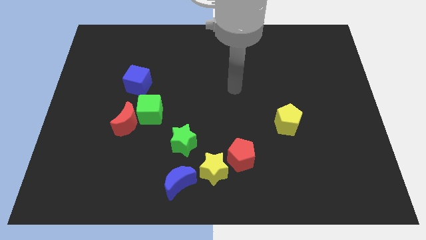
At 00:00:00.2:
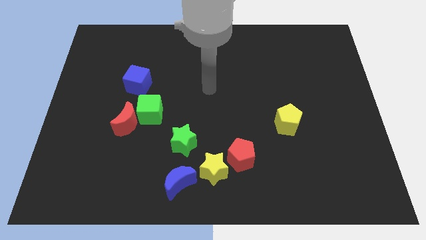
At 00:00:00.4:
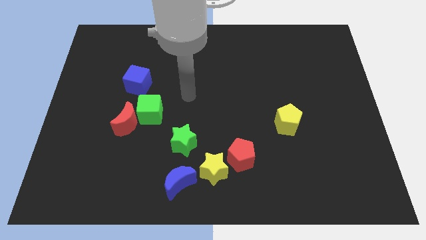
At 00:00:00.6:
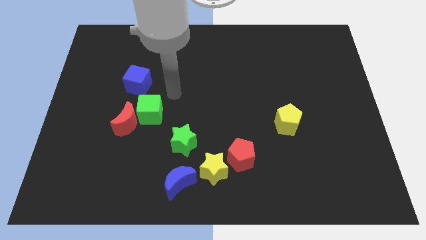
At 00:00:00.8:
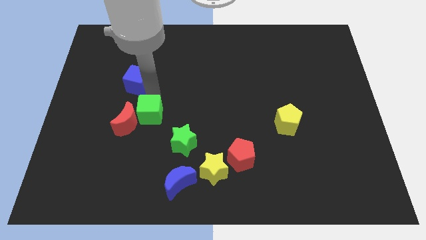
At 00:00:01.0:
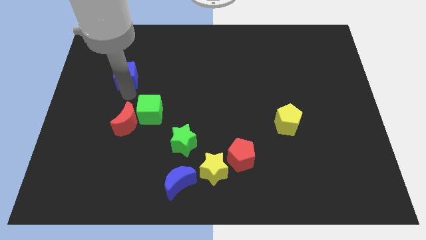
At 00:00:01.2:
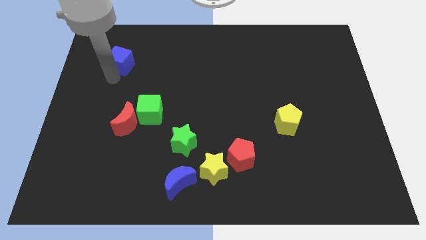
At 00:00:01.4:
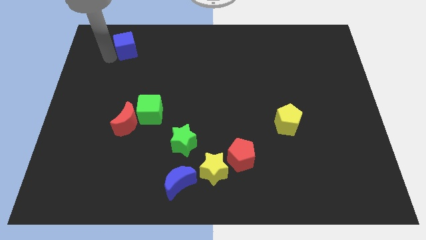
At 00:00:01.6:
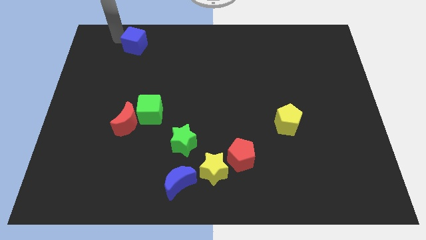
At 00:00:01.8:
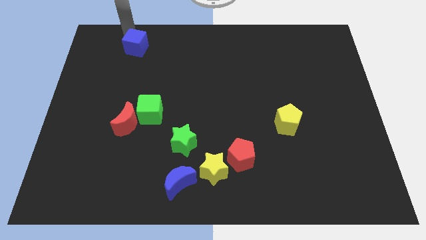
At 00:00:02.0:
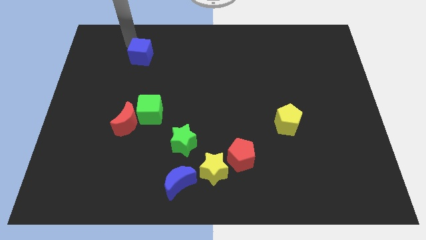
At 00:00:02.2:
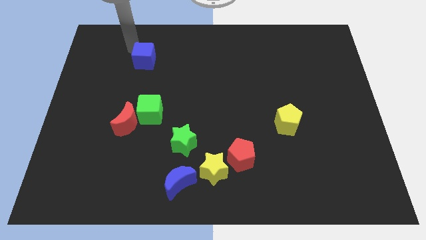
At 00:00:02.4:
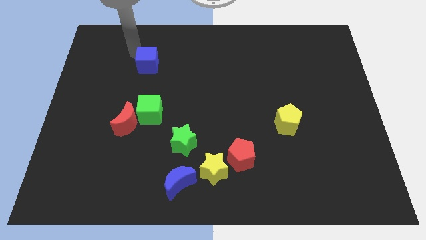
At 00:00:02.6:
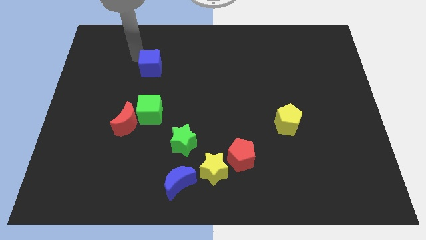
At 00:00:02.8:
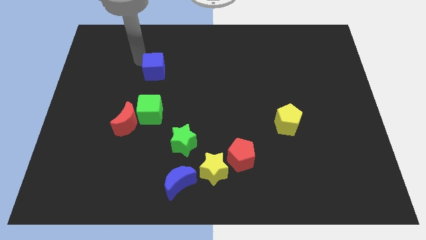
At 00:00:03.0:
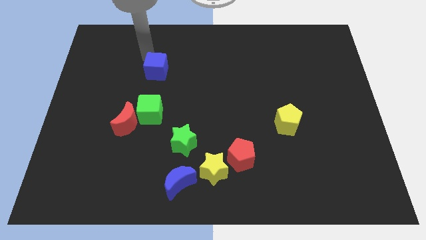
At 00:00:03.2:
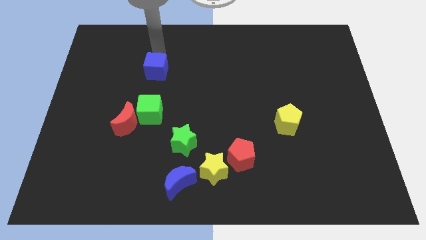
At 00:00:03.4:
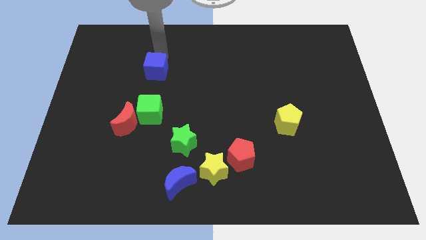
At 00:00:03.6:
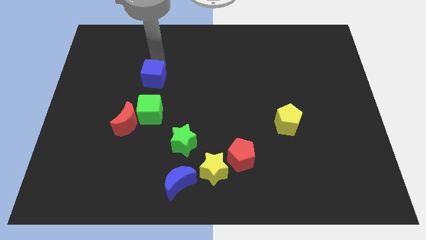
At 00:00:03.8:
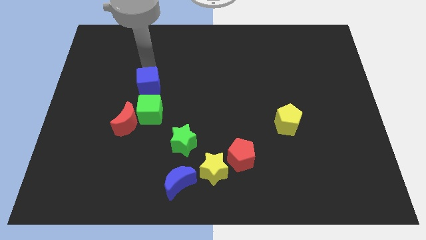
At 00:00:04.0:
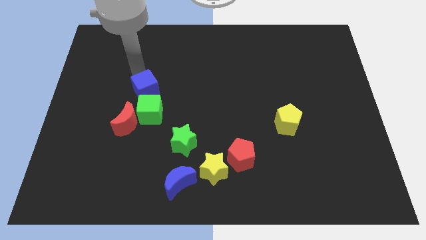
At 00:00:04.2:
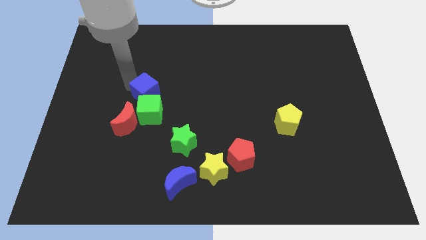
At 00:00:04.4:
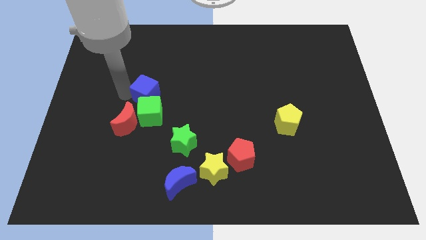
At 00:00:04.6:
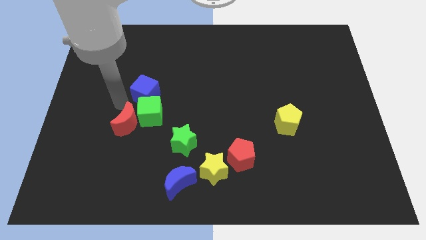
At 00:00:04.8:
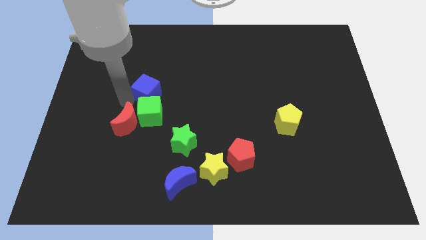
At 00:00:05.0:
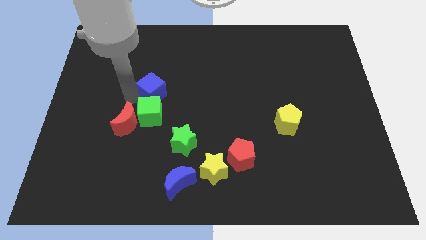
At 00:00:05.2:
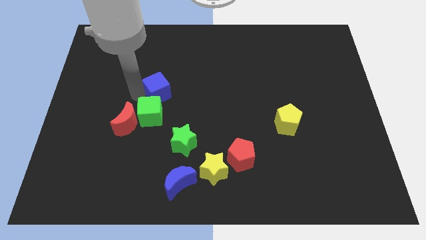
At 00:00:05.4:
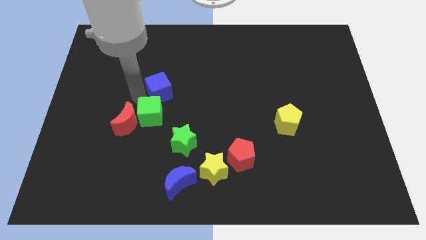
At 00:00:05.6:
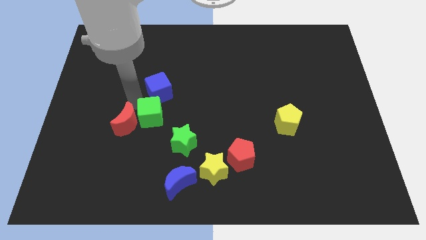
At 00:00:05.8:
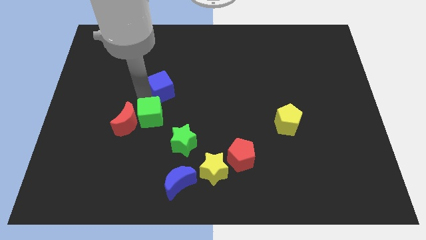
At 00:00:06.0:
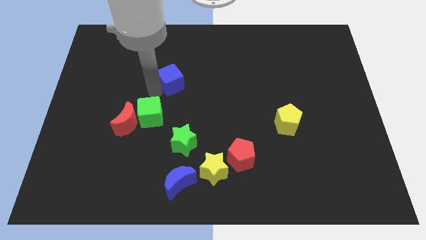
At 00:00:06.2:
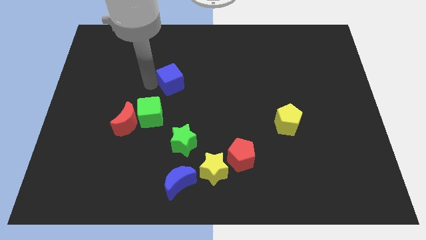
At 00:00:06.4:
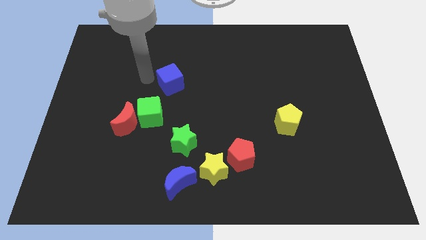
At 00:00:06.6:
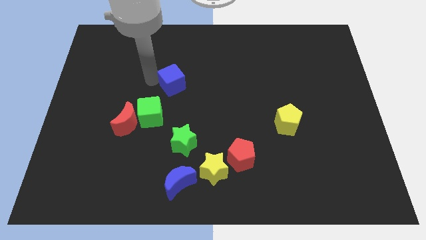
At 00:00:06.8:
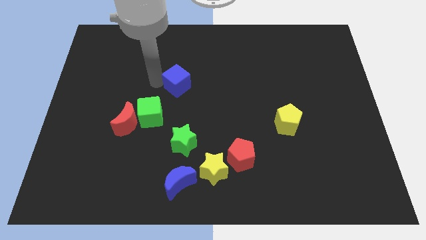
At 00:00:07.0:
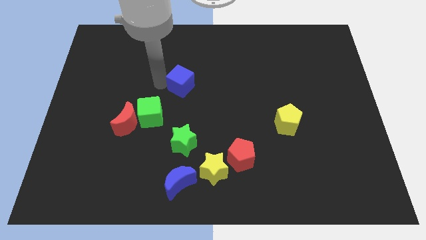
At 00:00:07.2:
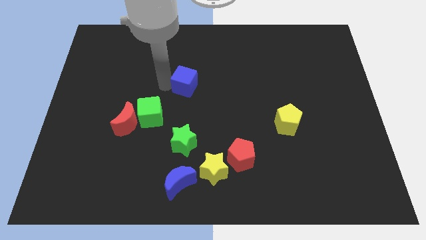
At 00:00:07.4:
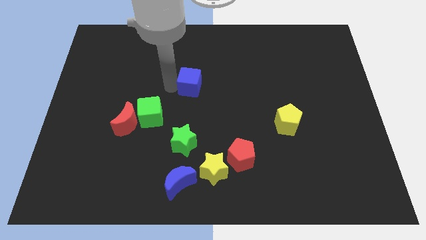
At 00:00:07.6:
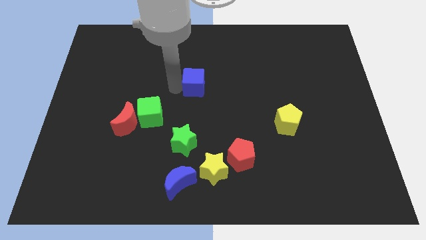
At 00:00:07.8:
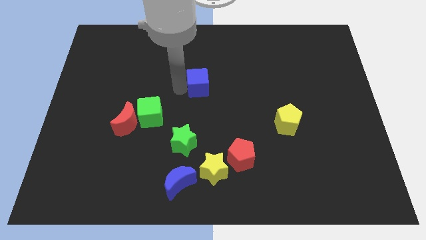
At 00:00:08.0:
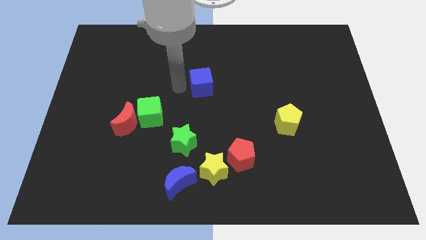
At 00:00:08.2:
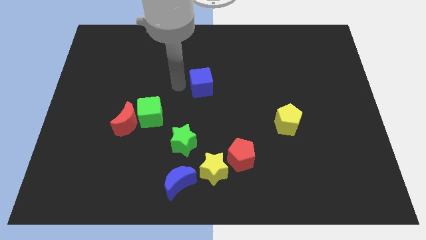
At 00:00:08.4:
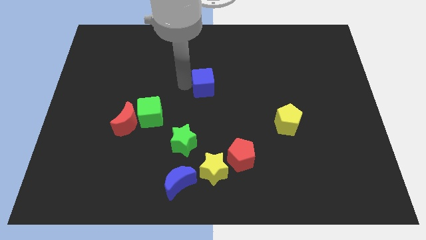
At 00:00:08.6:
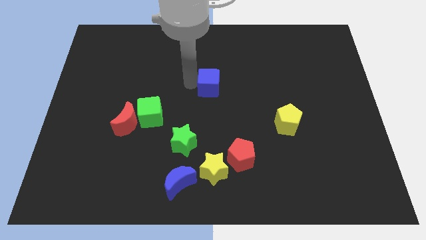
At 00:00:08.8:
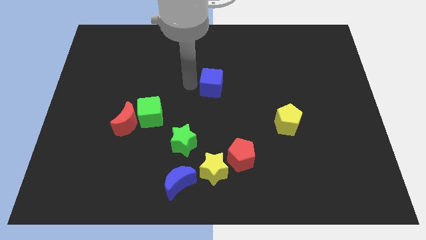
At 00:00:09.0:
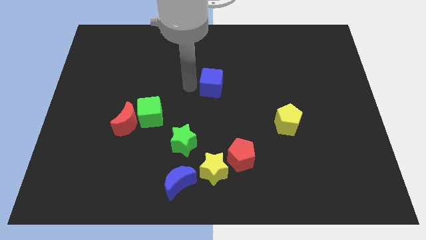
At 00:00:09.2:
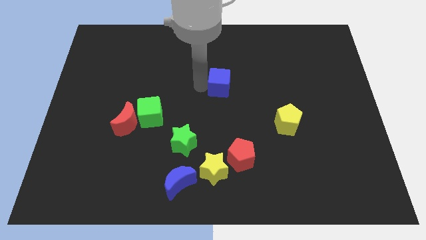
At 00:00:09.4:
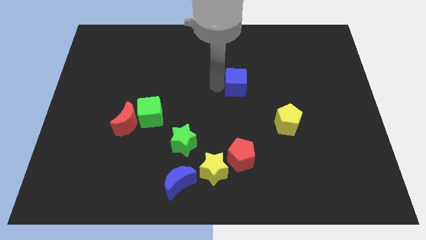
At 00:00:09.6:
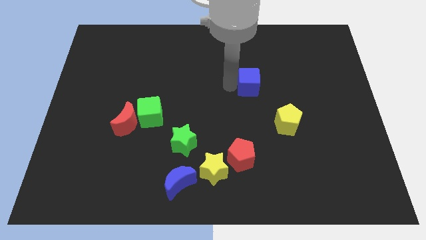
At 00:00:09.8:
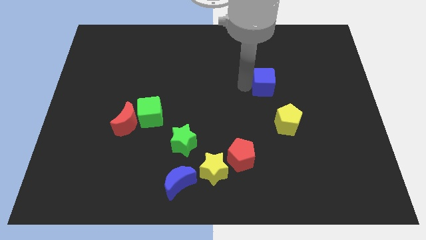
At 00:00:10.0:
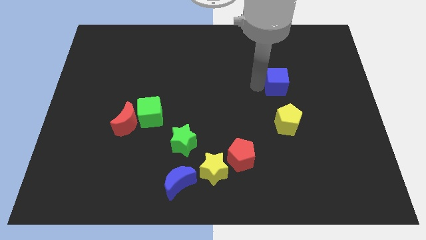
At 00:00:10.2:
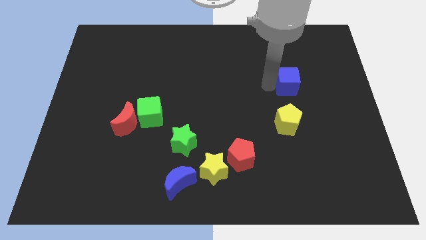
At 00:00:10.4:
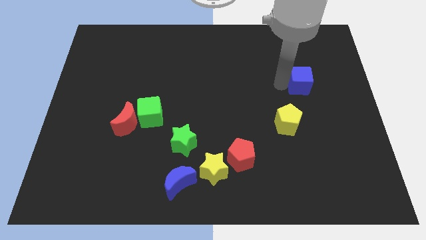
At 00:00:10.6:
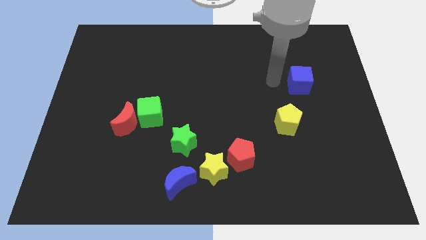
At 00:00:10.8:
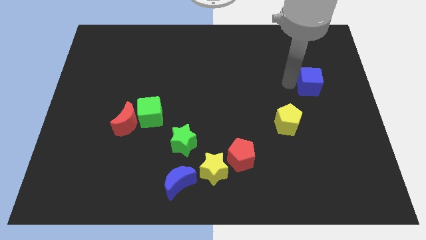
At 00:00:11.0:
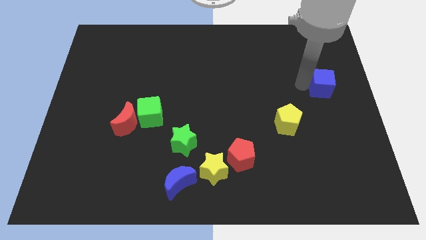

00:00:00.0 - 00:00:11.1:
push the blue cube to the right side

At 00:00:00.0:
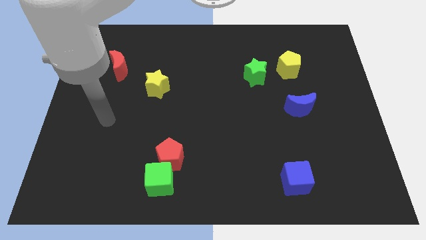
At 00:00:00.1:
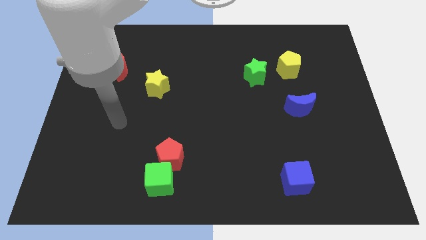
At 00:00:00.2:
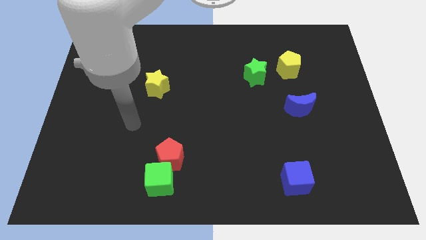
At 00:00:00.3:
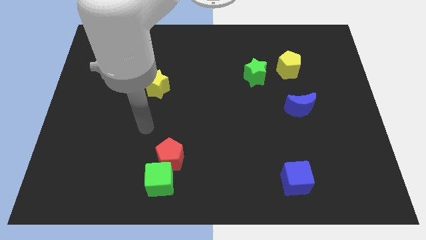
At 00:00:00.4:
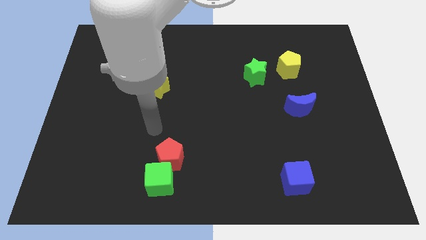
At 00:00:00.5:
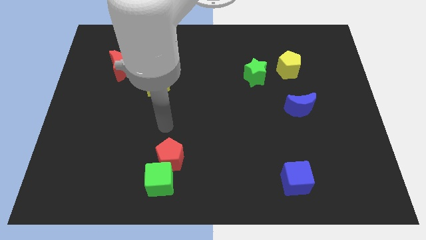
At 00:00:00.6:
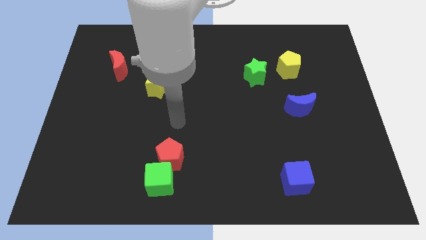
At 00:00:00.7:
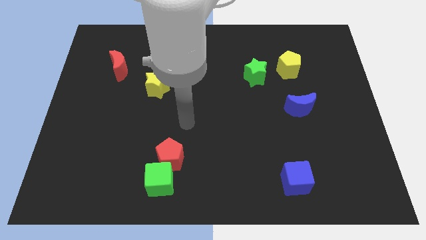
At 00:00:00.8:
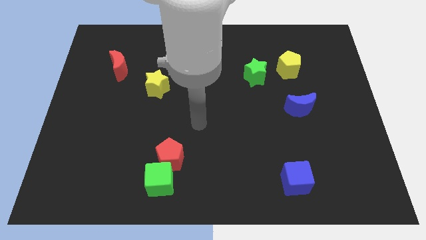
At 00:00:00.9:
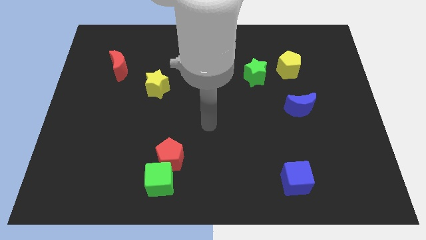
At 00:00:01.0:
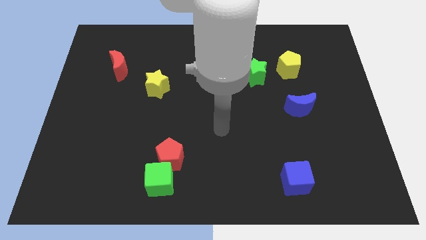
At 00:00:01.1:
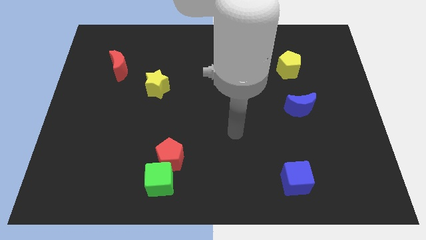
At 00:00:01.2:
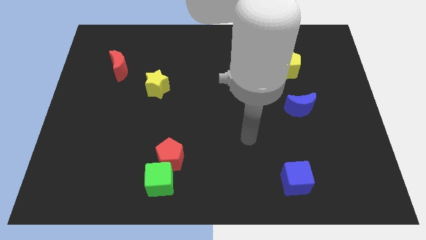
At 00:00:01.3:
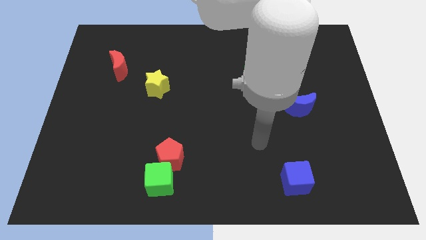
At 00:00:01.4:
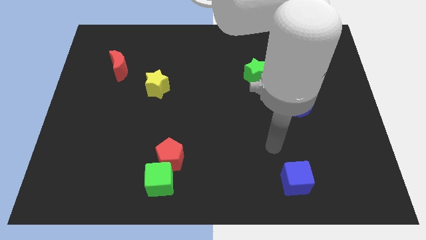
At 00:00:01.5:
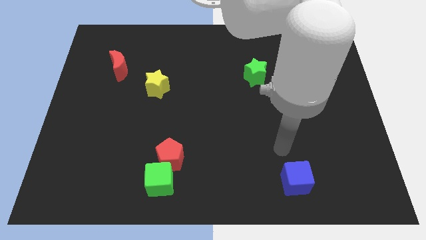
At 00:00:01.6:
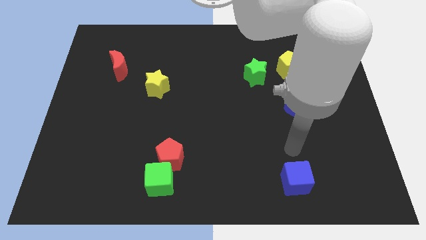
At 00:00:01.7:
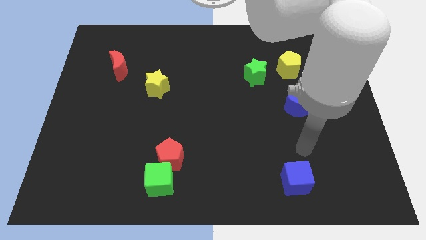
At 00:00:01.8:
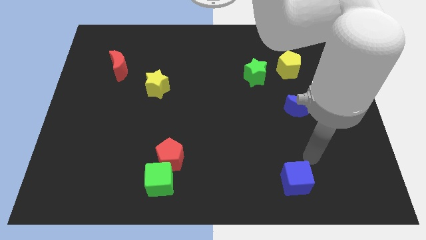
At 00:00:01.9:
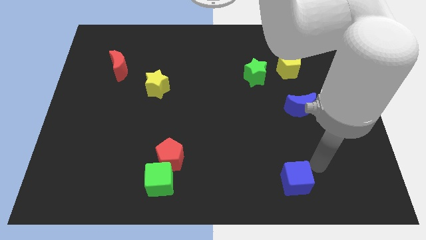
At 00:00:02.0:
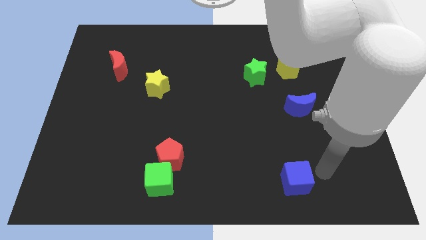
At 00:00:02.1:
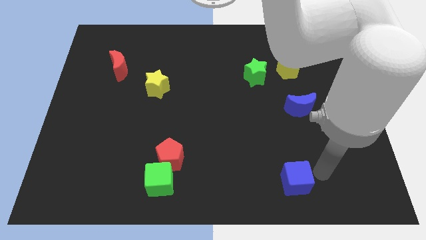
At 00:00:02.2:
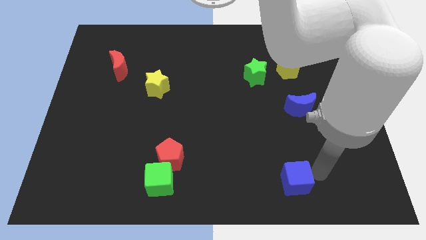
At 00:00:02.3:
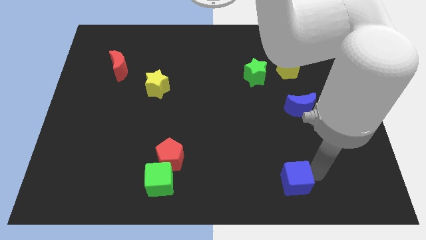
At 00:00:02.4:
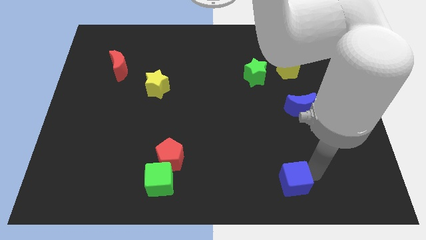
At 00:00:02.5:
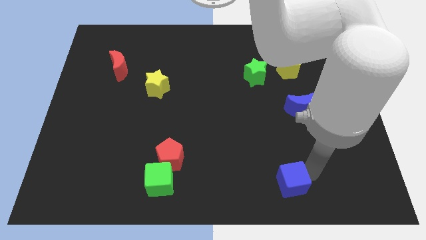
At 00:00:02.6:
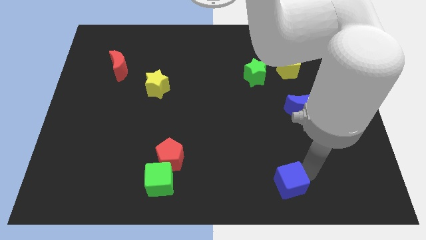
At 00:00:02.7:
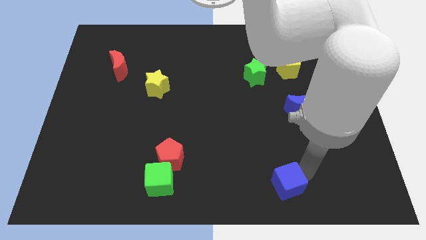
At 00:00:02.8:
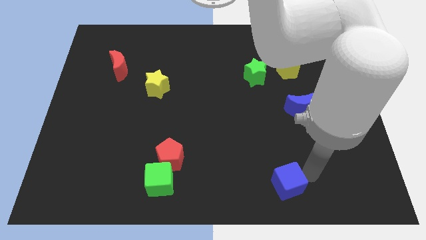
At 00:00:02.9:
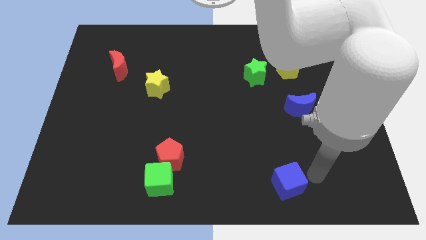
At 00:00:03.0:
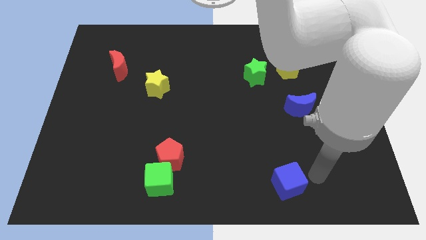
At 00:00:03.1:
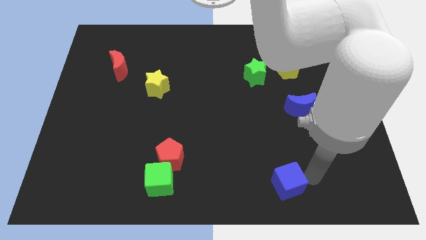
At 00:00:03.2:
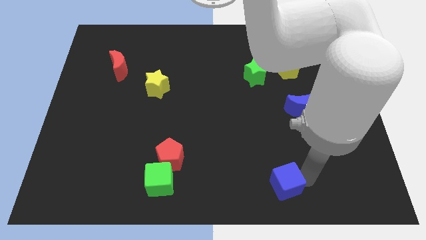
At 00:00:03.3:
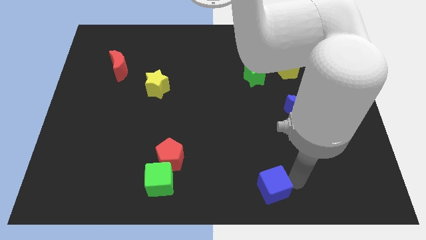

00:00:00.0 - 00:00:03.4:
put the blue cube to the bottom side
